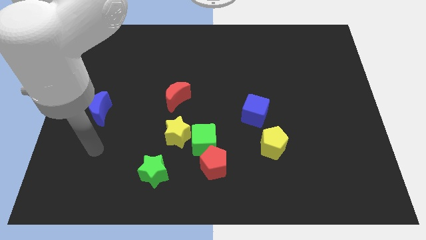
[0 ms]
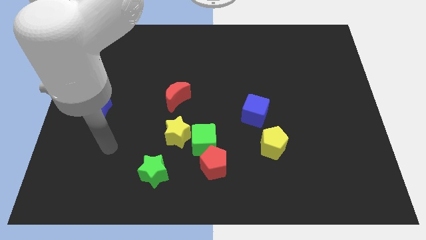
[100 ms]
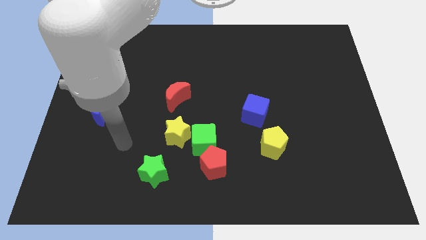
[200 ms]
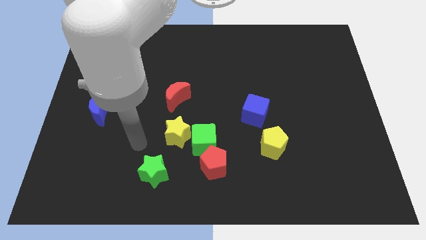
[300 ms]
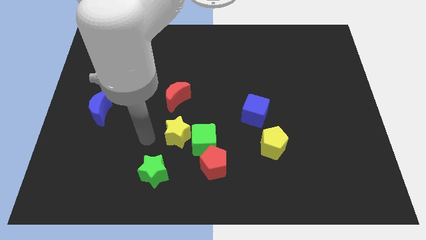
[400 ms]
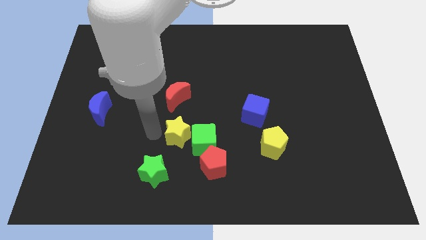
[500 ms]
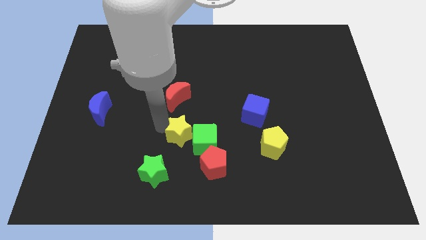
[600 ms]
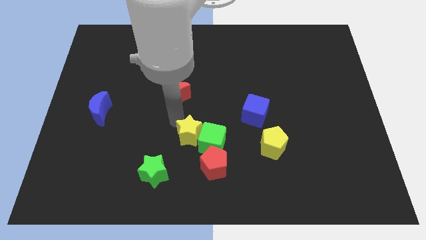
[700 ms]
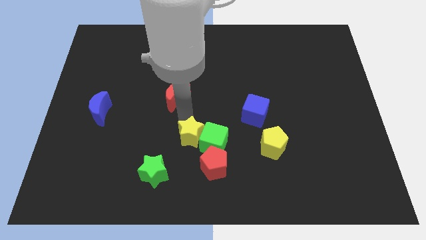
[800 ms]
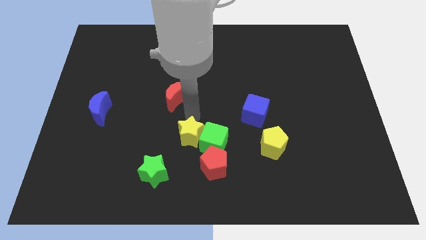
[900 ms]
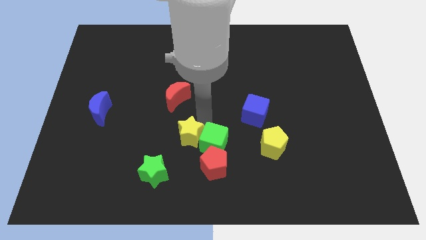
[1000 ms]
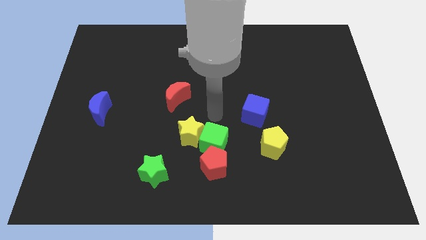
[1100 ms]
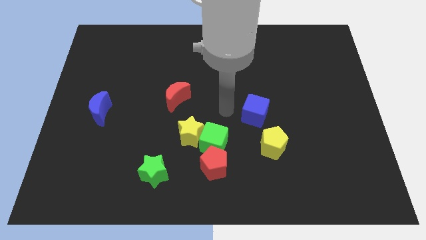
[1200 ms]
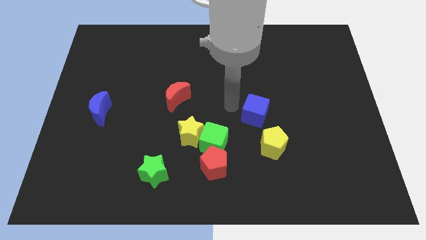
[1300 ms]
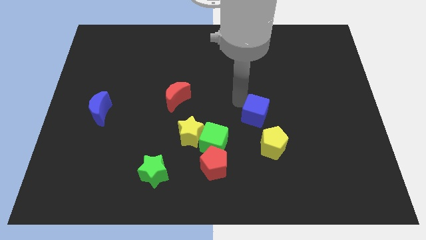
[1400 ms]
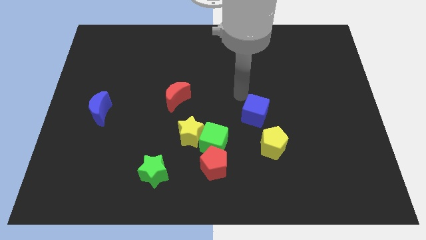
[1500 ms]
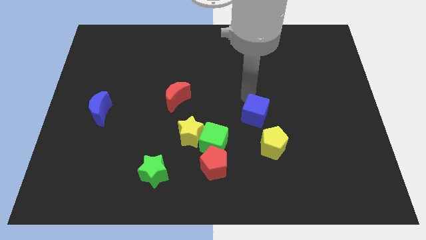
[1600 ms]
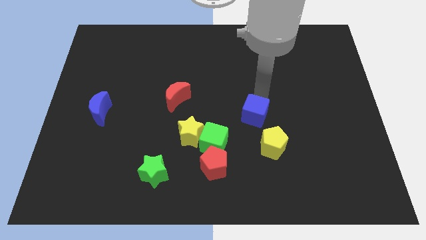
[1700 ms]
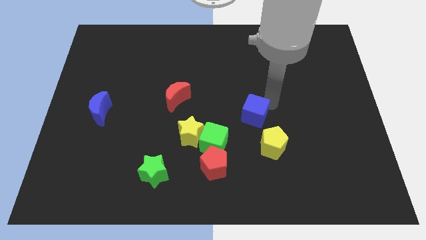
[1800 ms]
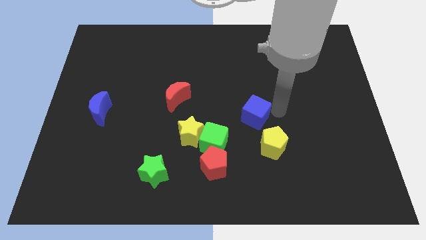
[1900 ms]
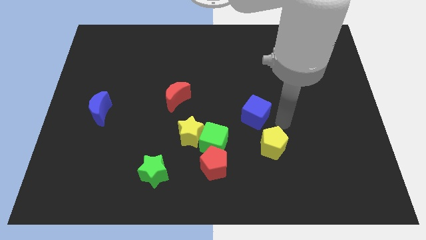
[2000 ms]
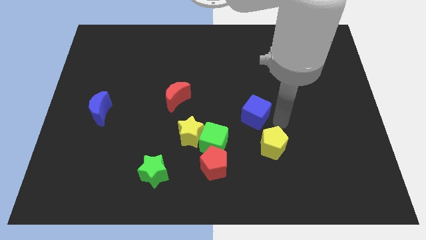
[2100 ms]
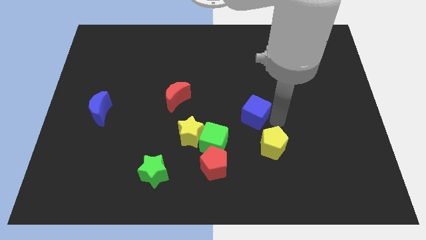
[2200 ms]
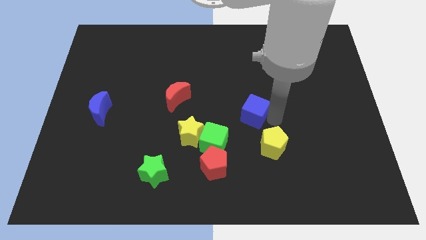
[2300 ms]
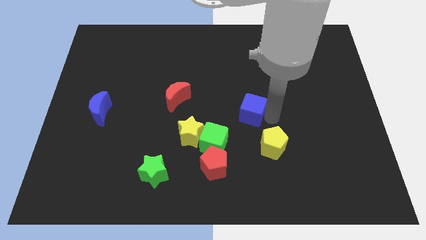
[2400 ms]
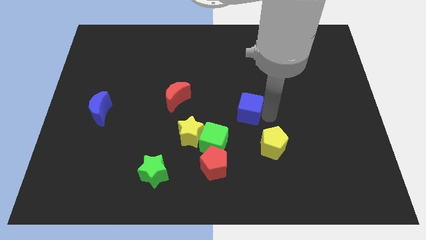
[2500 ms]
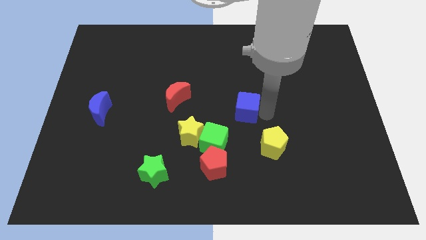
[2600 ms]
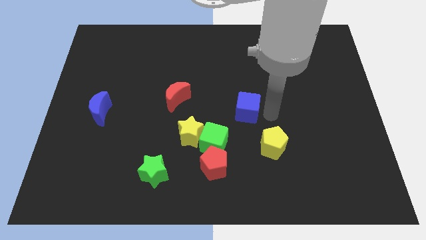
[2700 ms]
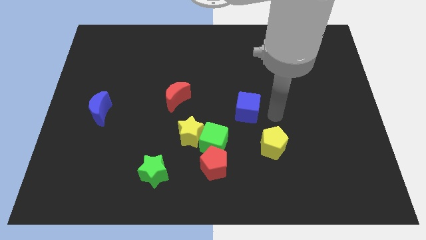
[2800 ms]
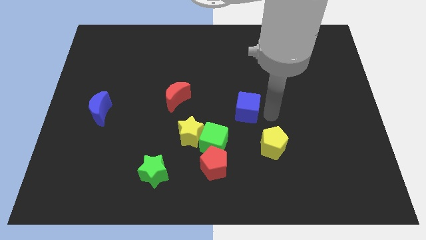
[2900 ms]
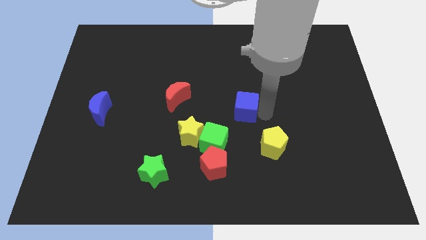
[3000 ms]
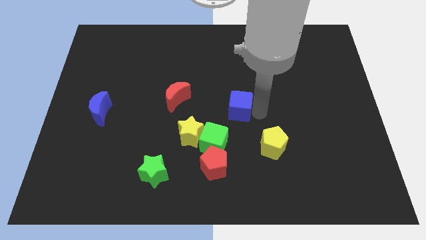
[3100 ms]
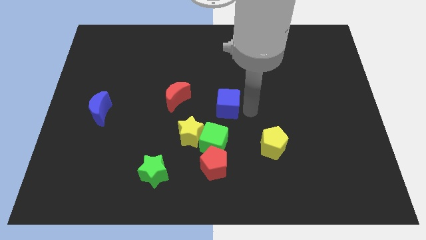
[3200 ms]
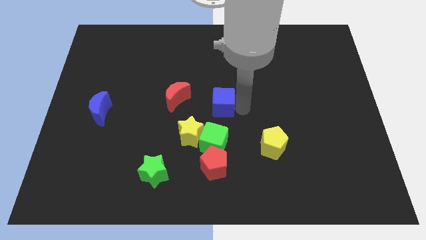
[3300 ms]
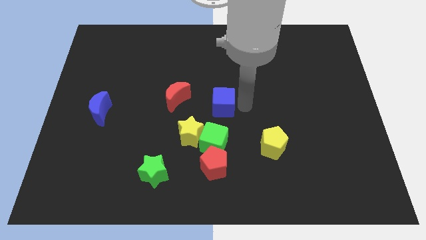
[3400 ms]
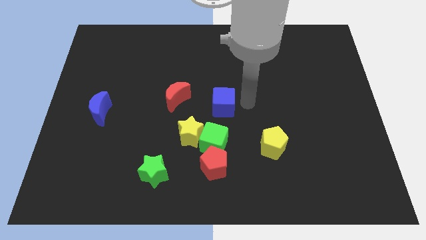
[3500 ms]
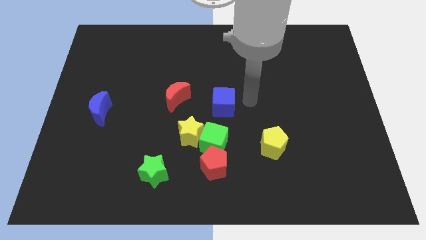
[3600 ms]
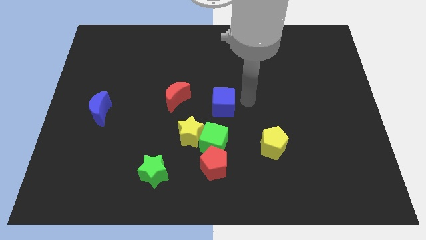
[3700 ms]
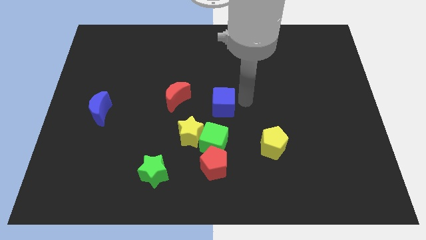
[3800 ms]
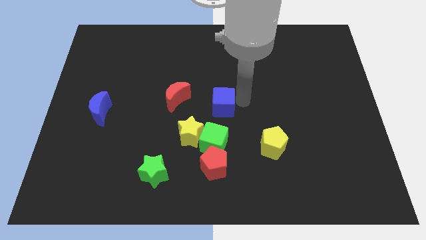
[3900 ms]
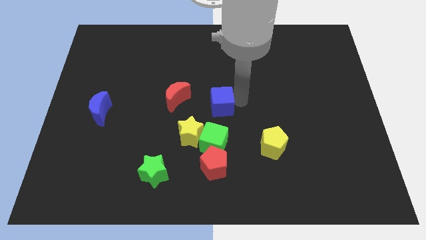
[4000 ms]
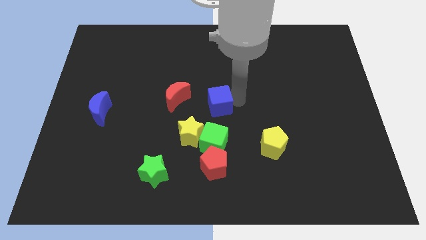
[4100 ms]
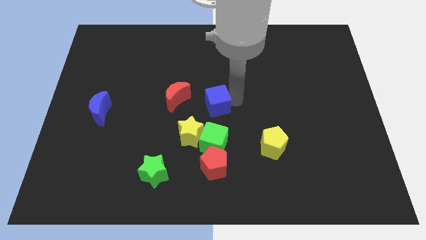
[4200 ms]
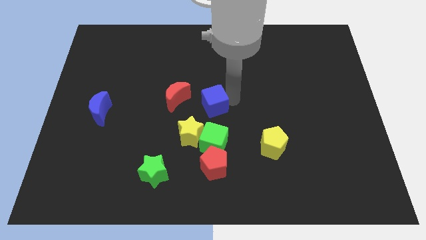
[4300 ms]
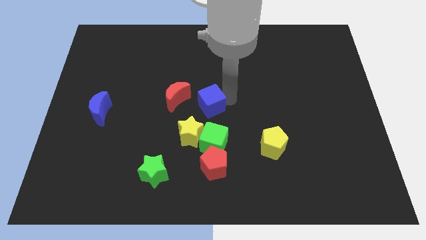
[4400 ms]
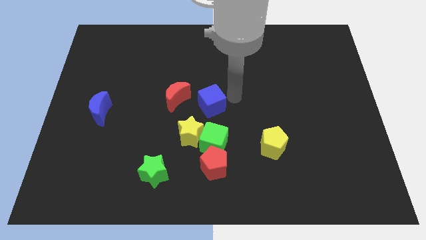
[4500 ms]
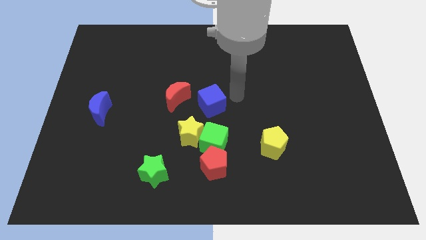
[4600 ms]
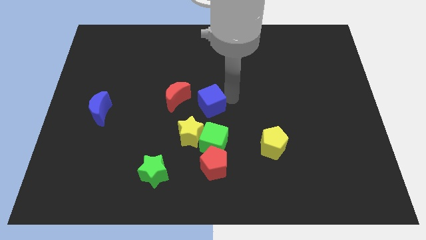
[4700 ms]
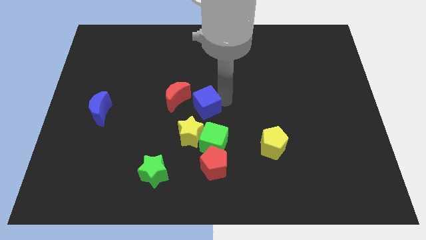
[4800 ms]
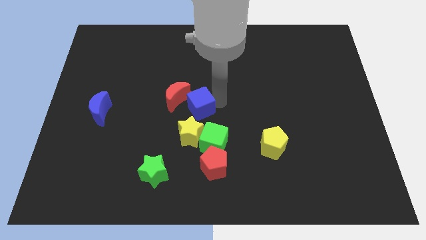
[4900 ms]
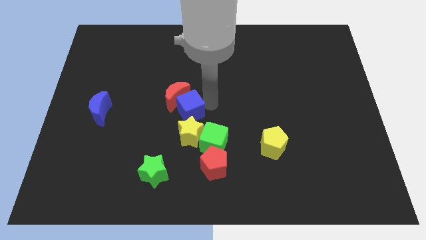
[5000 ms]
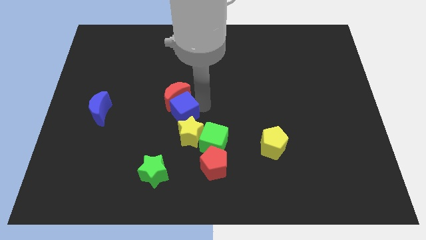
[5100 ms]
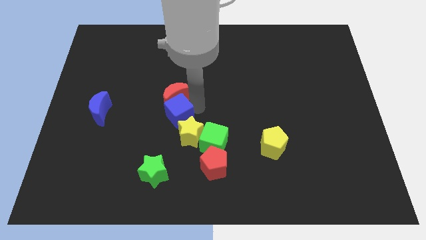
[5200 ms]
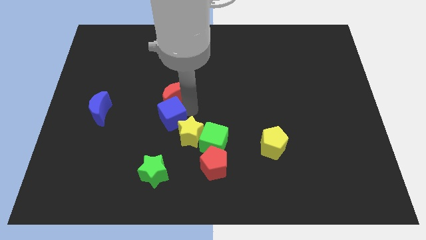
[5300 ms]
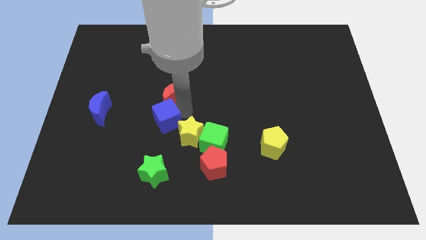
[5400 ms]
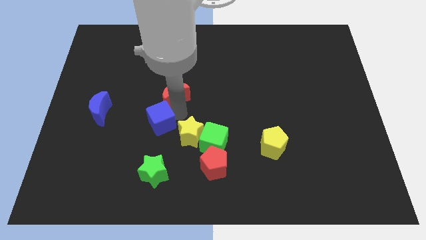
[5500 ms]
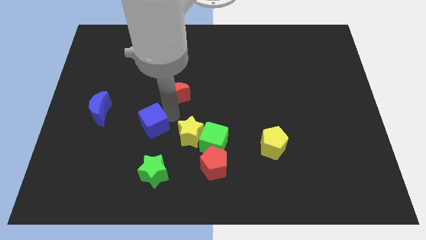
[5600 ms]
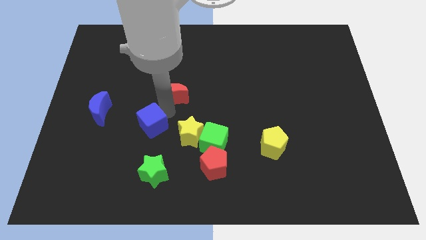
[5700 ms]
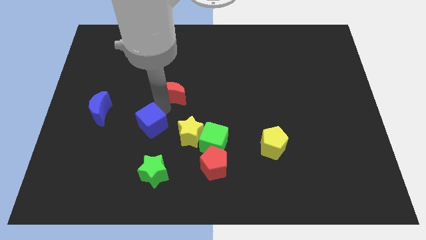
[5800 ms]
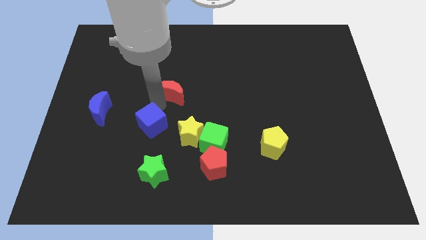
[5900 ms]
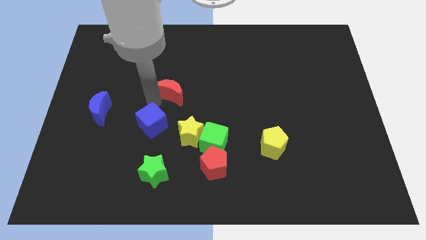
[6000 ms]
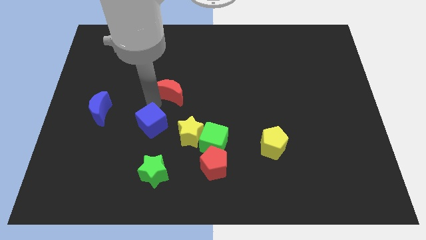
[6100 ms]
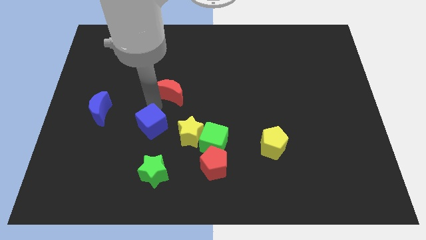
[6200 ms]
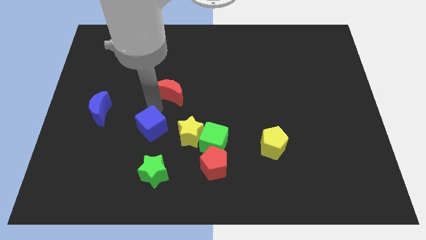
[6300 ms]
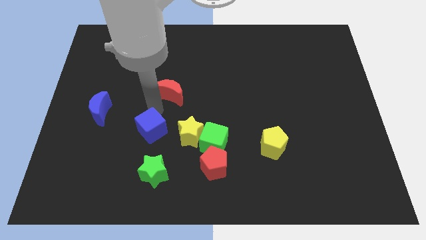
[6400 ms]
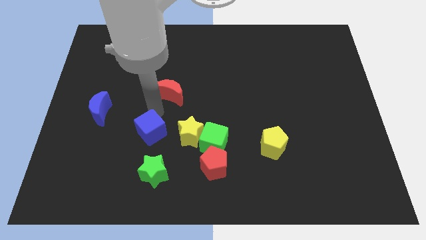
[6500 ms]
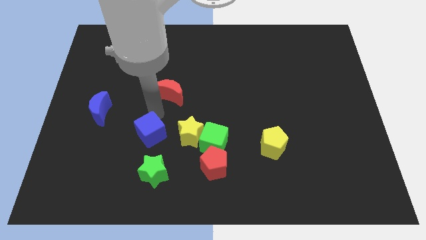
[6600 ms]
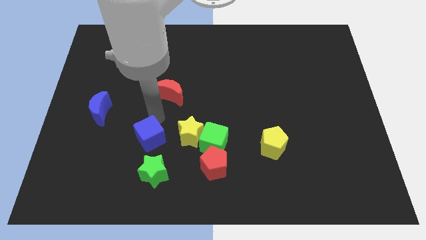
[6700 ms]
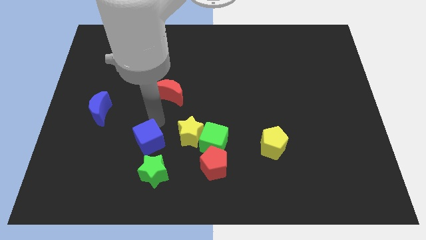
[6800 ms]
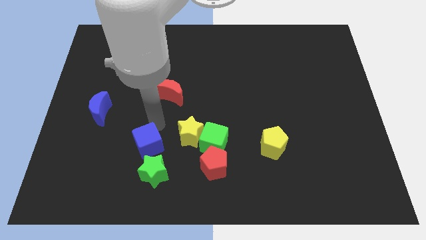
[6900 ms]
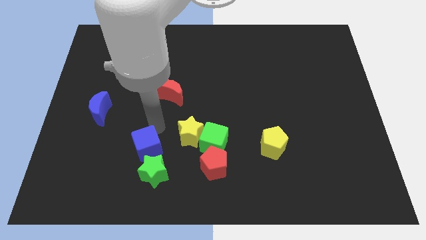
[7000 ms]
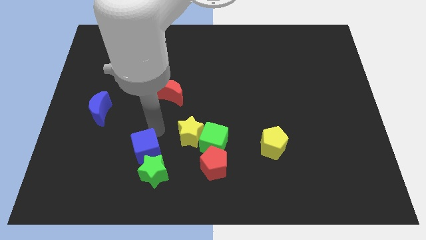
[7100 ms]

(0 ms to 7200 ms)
push the blue cube next to the green star
